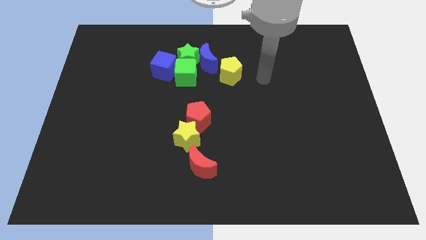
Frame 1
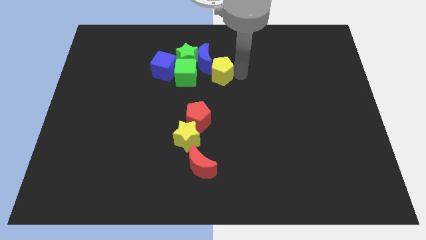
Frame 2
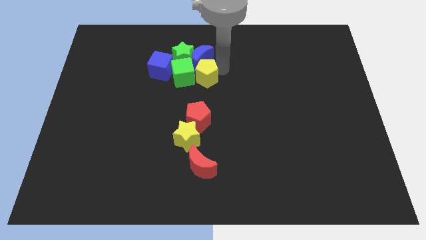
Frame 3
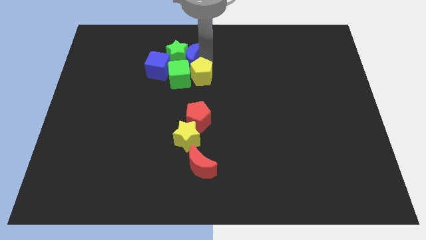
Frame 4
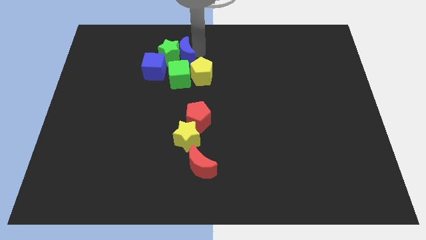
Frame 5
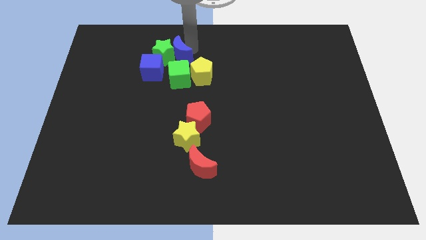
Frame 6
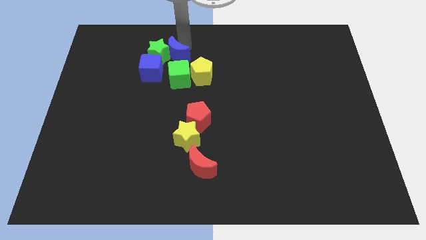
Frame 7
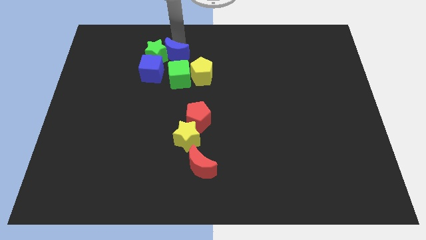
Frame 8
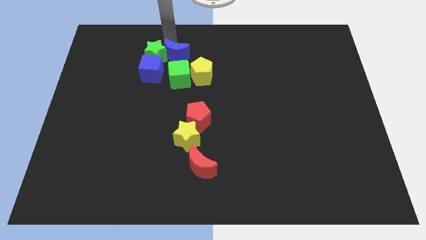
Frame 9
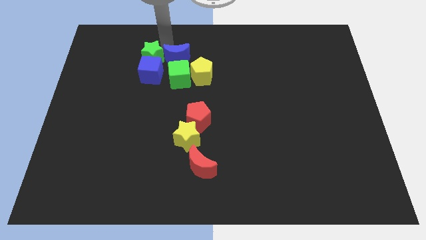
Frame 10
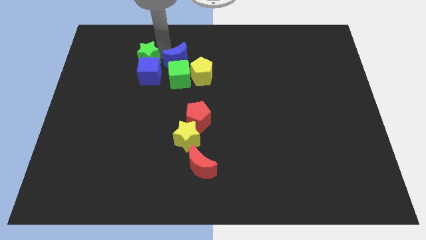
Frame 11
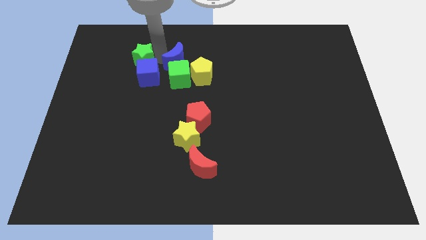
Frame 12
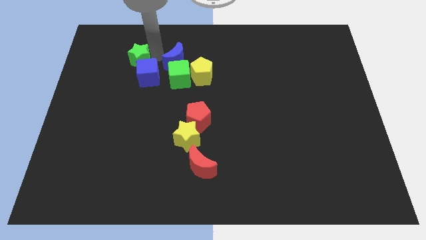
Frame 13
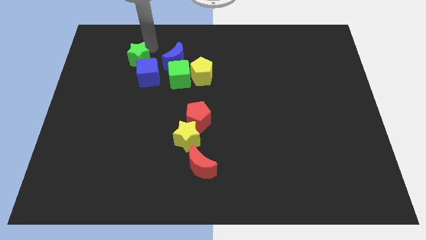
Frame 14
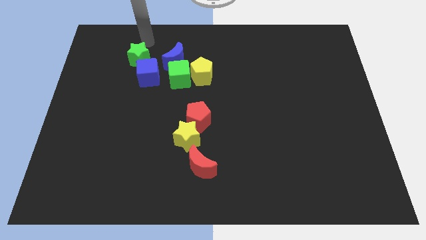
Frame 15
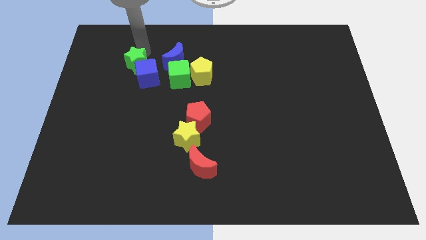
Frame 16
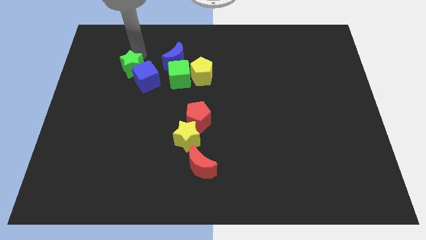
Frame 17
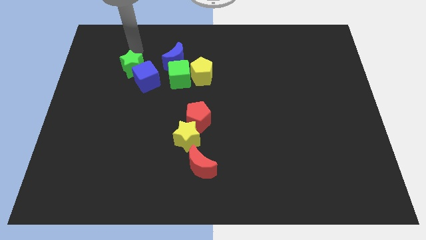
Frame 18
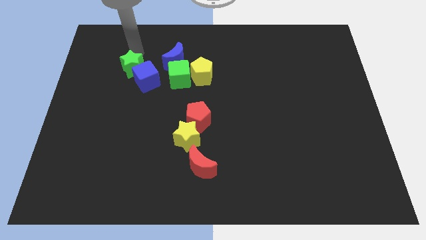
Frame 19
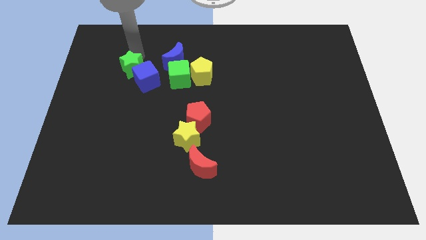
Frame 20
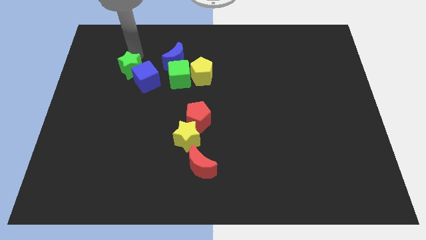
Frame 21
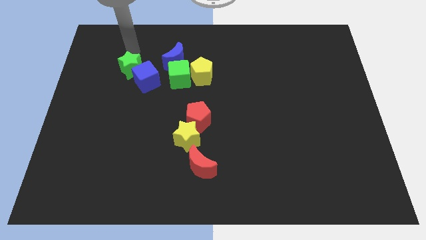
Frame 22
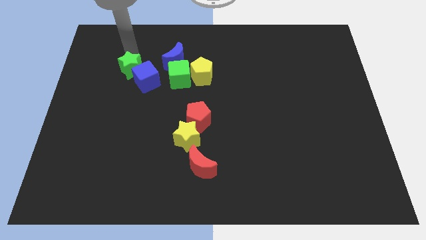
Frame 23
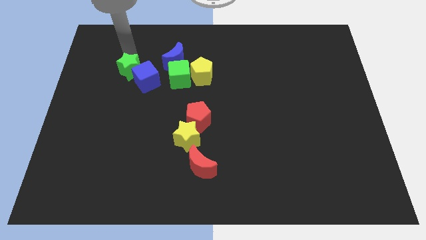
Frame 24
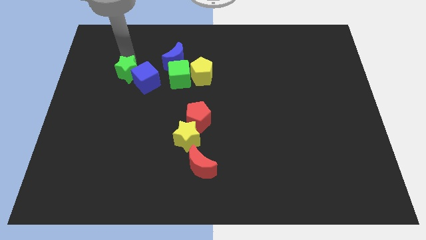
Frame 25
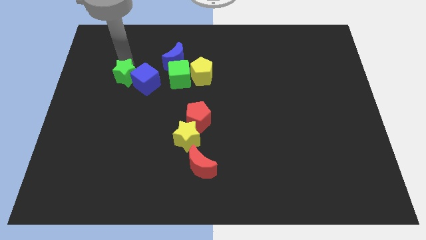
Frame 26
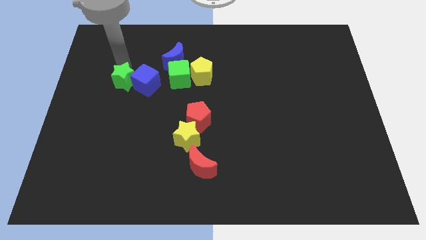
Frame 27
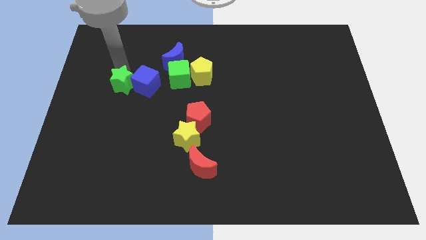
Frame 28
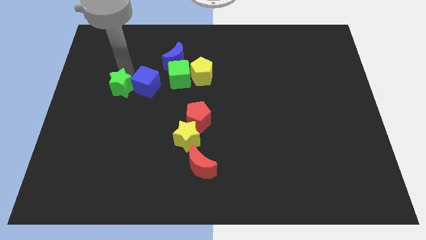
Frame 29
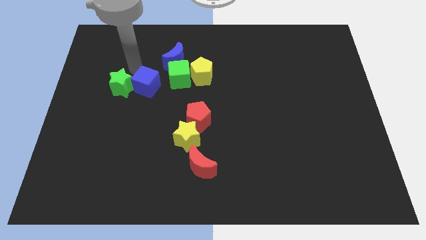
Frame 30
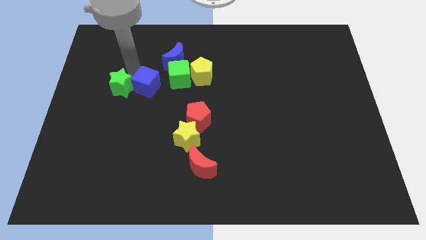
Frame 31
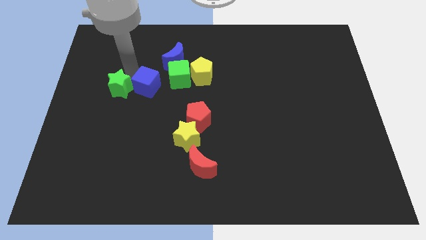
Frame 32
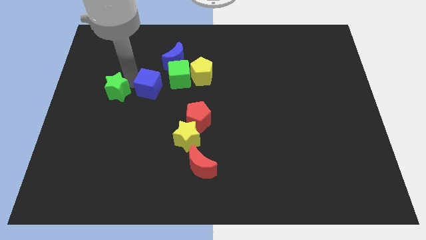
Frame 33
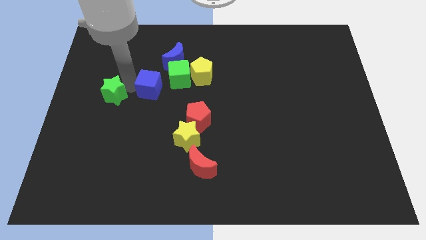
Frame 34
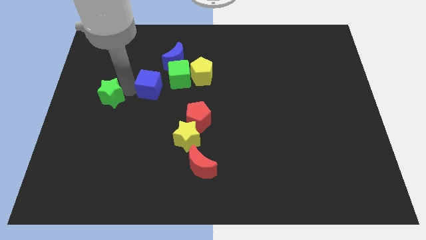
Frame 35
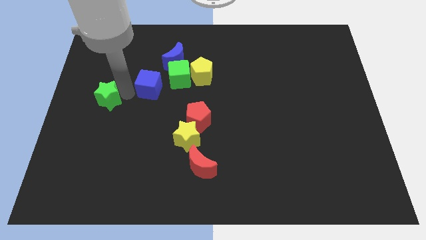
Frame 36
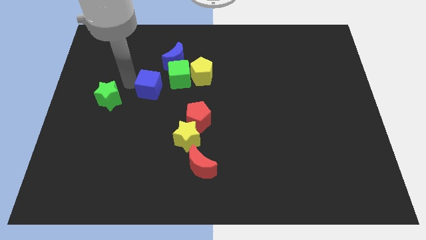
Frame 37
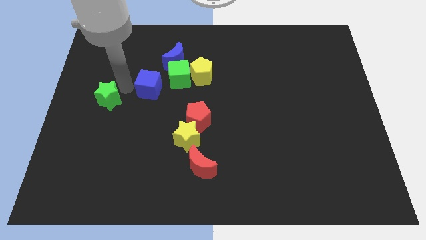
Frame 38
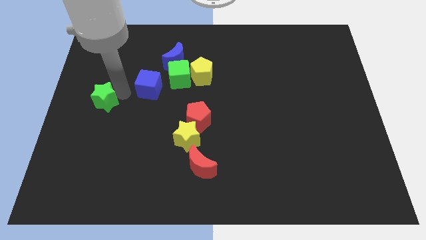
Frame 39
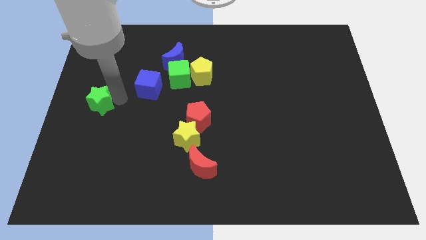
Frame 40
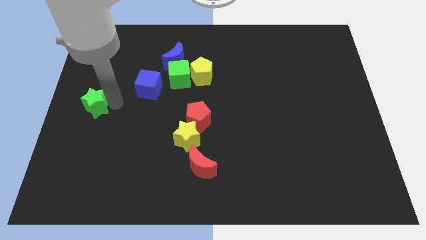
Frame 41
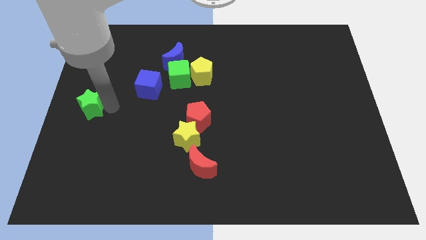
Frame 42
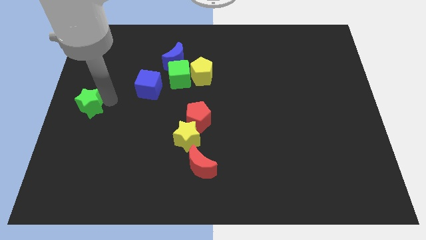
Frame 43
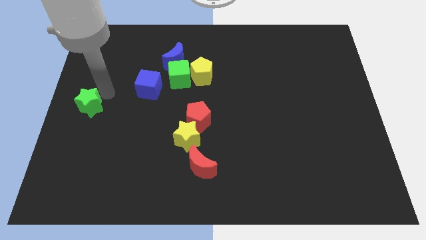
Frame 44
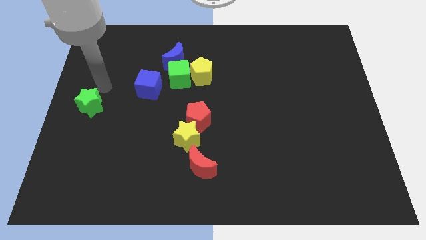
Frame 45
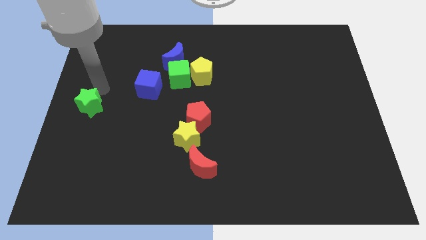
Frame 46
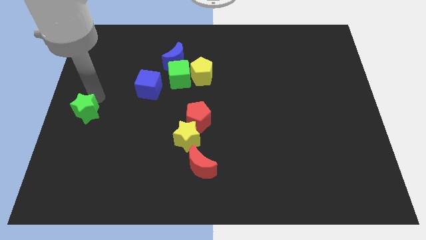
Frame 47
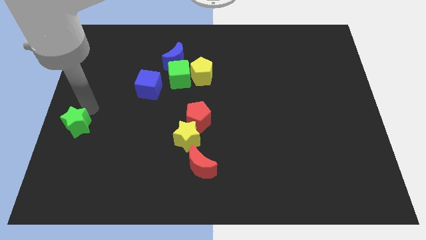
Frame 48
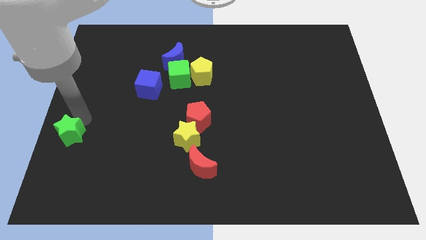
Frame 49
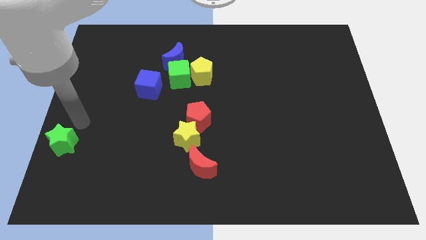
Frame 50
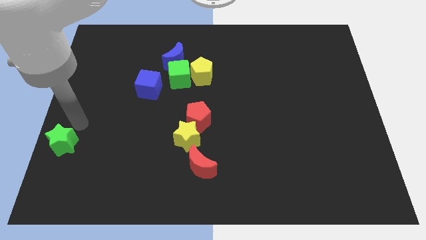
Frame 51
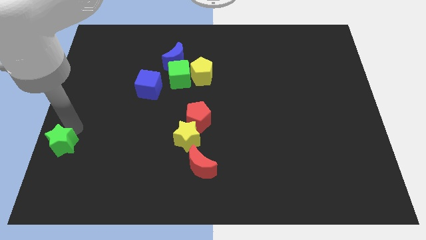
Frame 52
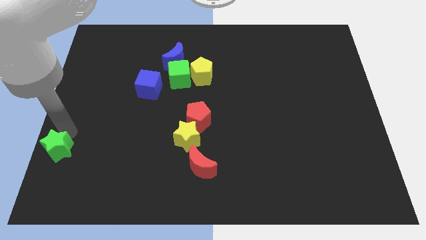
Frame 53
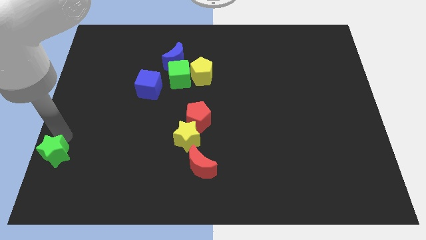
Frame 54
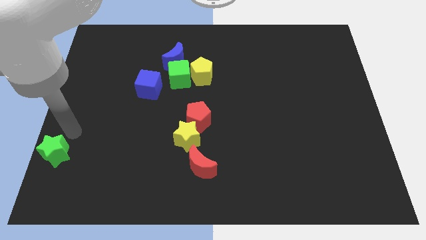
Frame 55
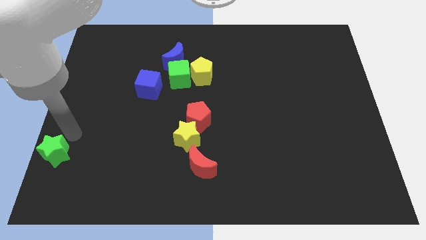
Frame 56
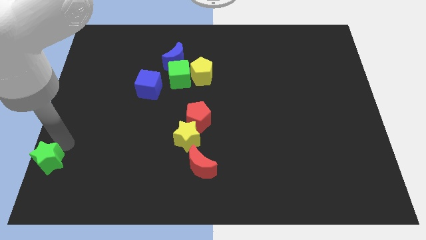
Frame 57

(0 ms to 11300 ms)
push the green star to the bottom left corner

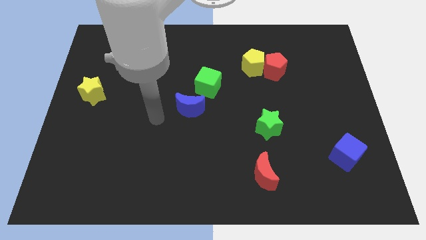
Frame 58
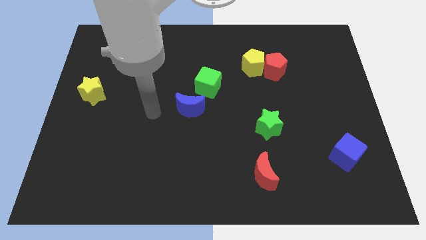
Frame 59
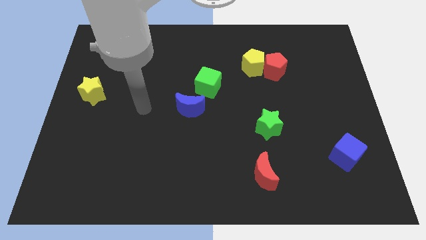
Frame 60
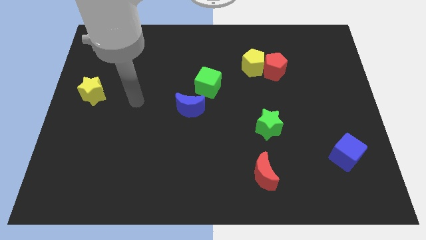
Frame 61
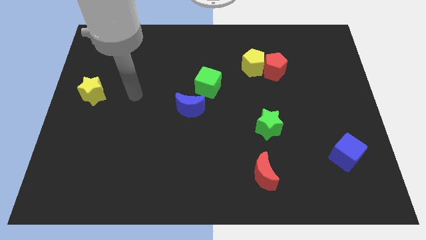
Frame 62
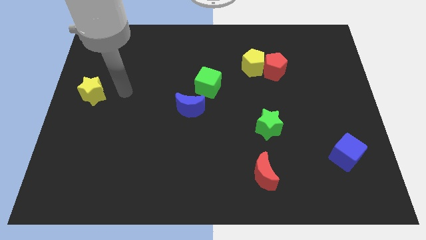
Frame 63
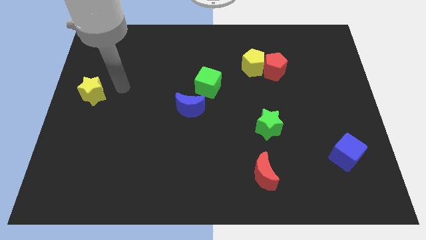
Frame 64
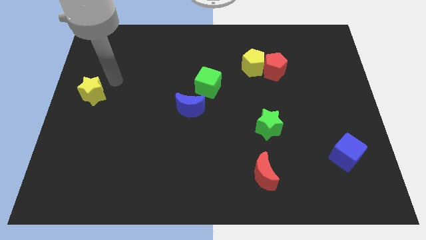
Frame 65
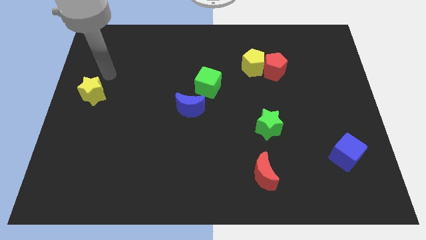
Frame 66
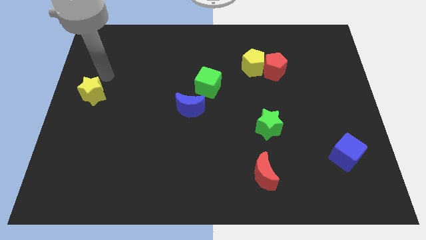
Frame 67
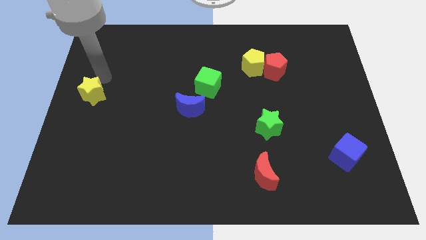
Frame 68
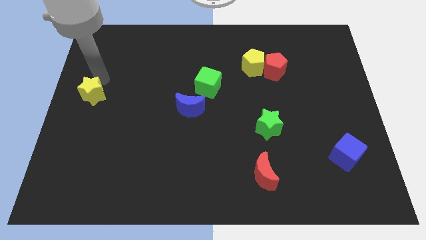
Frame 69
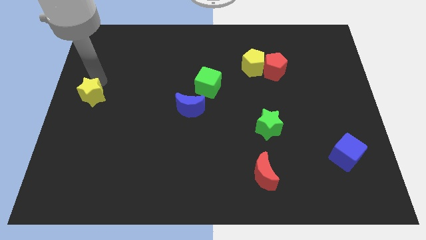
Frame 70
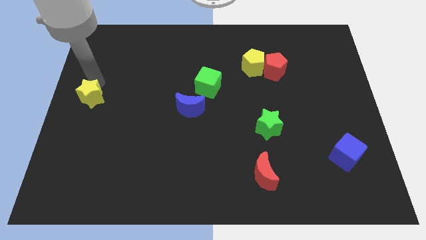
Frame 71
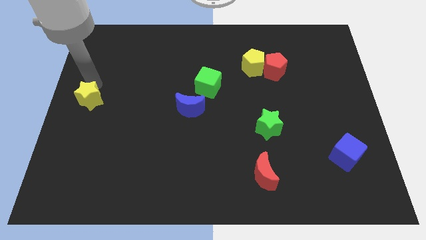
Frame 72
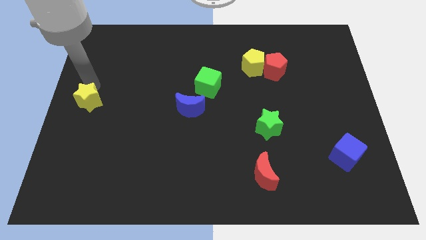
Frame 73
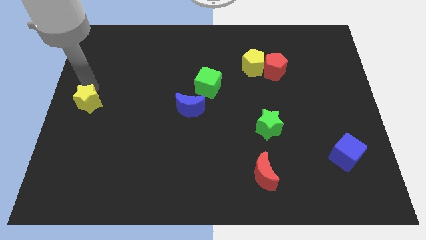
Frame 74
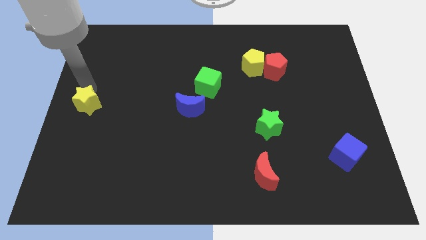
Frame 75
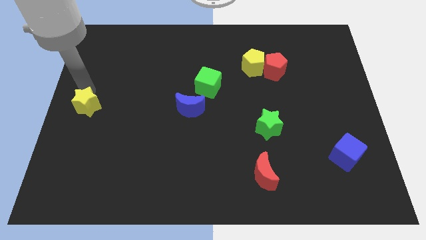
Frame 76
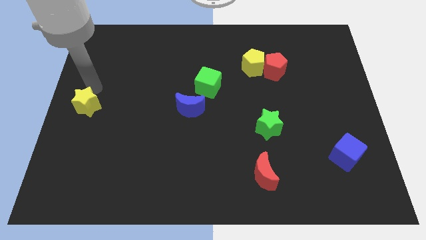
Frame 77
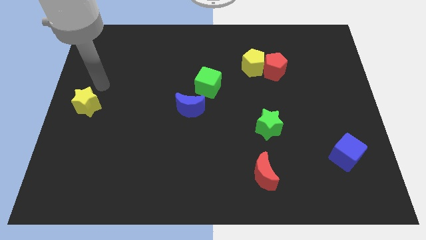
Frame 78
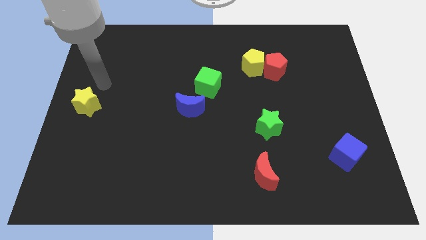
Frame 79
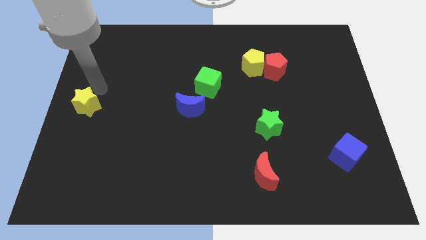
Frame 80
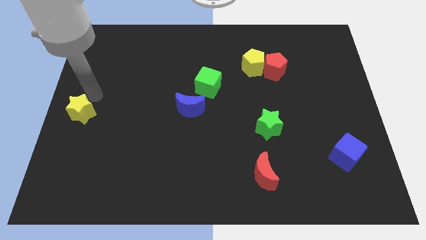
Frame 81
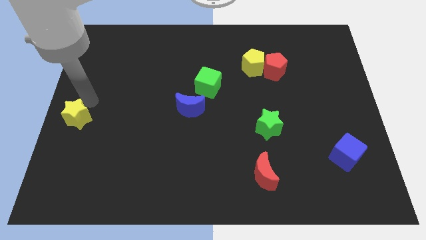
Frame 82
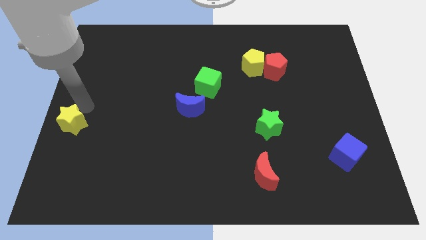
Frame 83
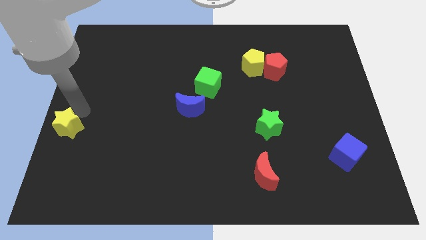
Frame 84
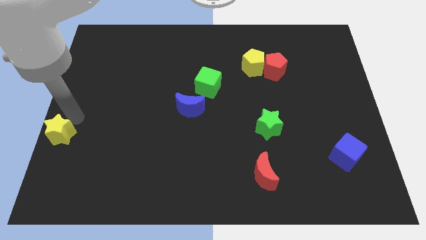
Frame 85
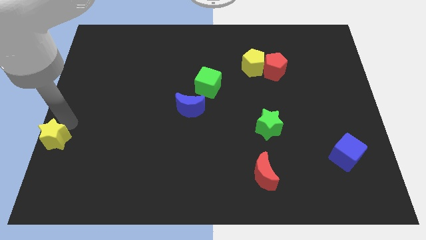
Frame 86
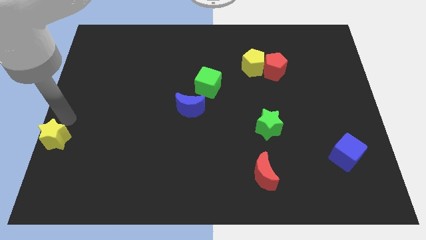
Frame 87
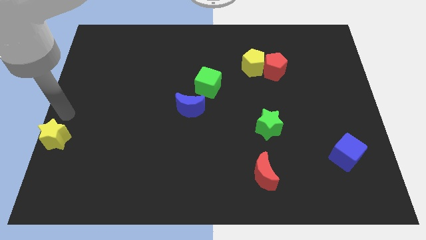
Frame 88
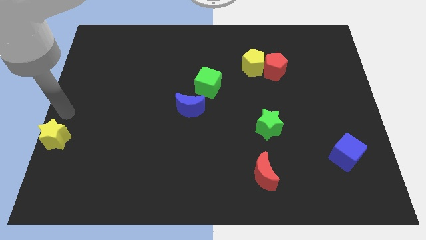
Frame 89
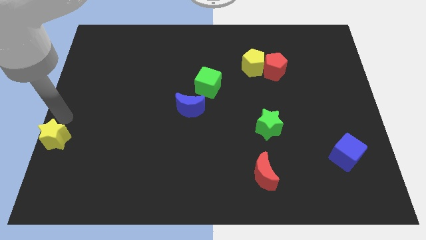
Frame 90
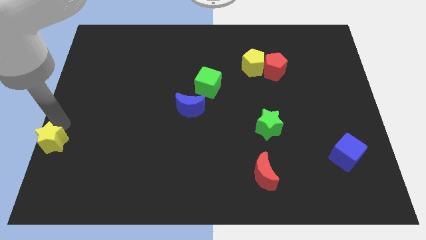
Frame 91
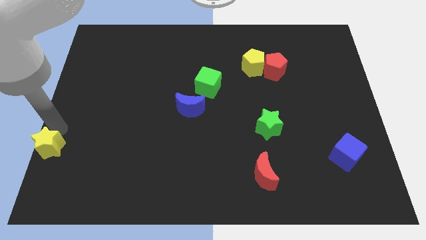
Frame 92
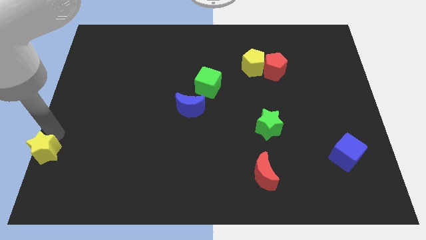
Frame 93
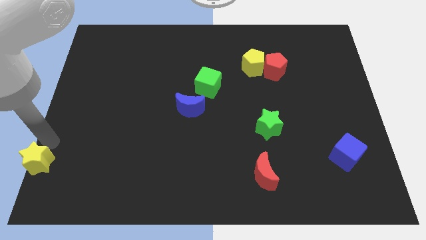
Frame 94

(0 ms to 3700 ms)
slide the yellow star to the bottom left
